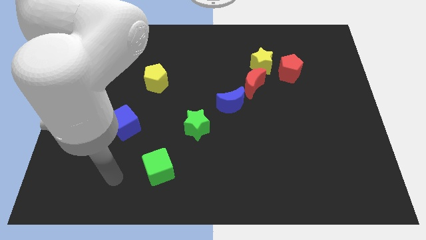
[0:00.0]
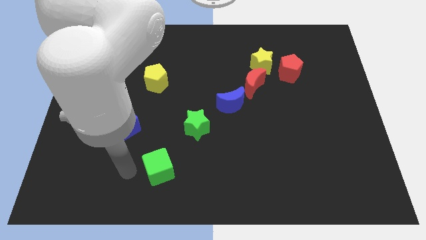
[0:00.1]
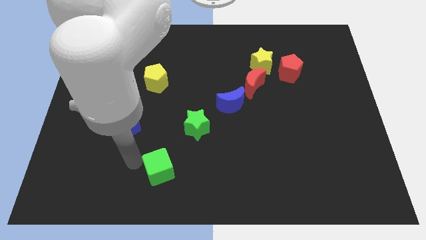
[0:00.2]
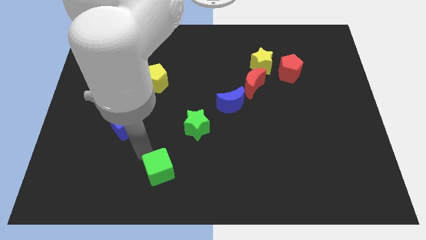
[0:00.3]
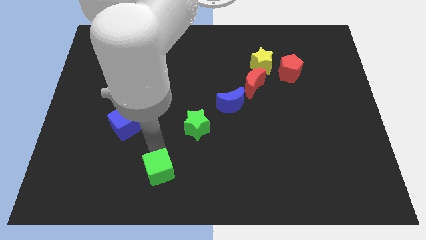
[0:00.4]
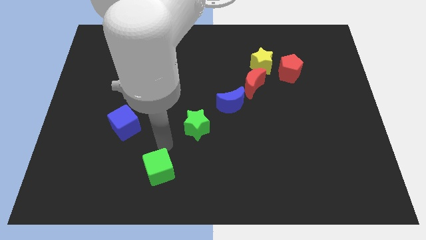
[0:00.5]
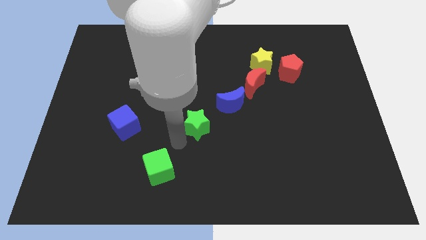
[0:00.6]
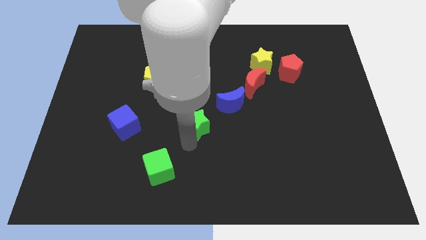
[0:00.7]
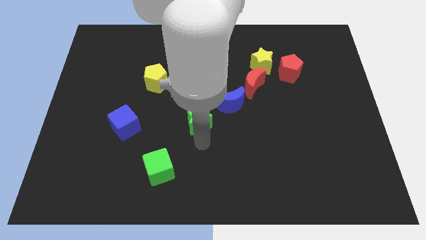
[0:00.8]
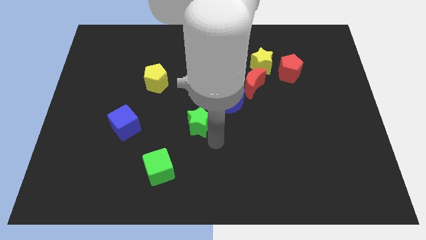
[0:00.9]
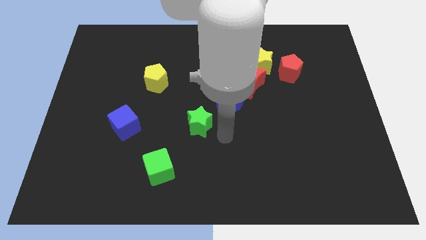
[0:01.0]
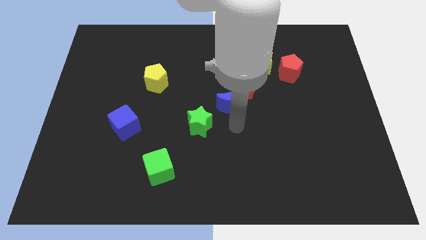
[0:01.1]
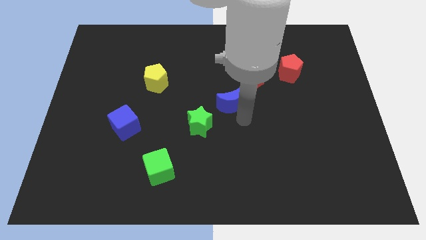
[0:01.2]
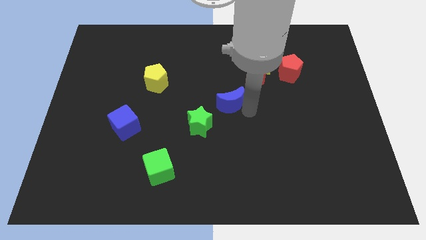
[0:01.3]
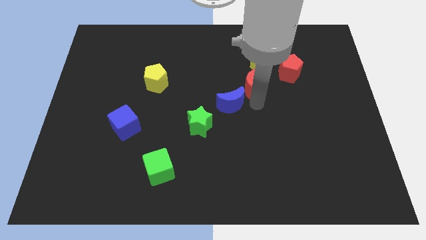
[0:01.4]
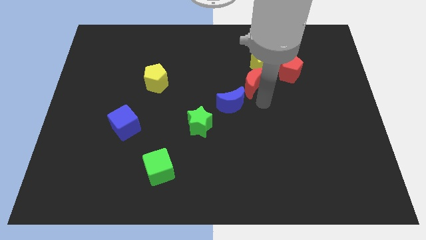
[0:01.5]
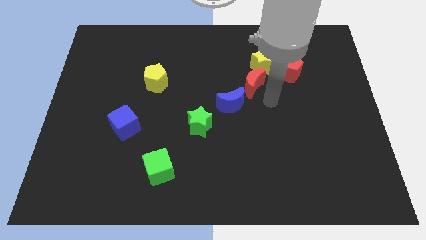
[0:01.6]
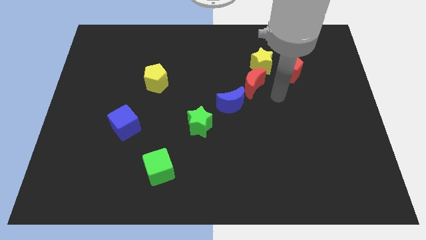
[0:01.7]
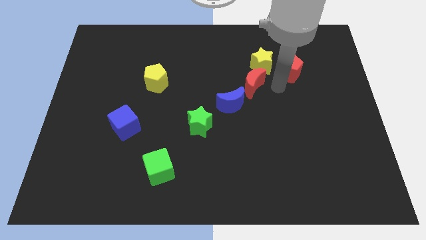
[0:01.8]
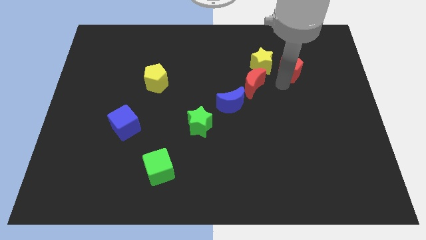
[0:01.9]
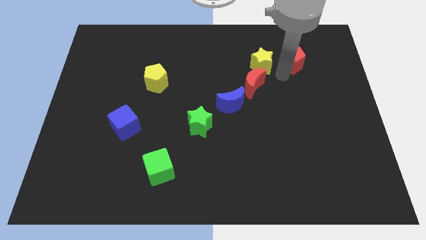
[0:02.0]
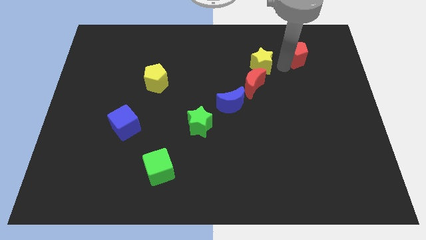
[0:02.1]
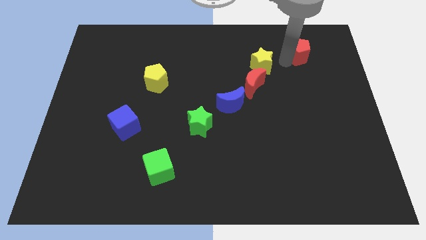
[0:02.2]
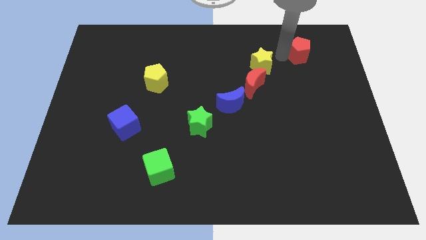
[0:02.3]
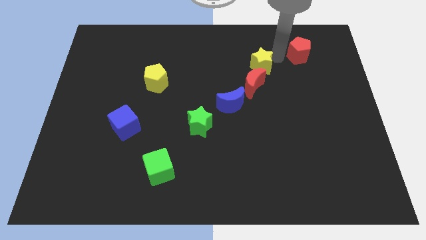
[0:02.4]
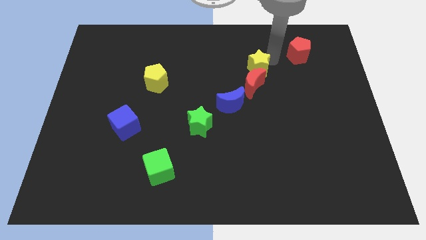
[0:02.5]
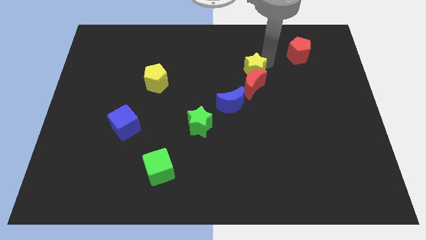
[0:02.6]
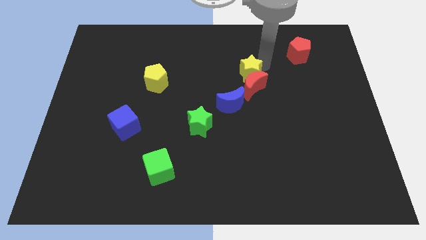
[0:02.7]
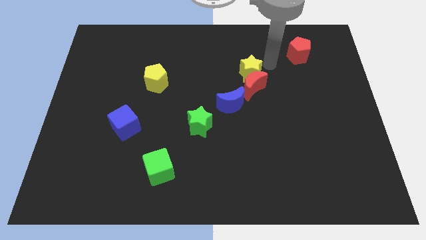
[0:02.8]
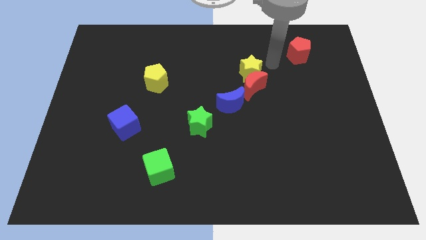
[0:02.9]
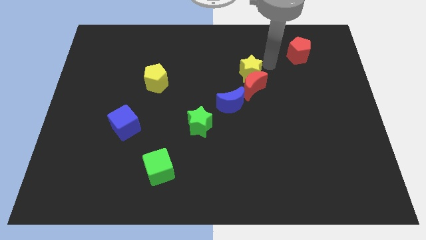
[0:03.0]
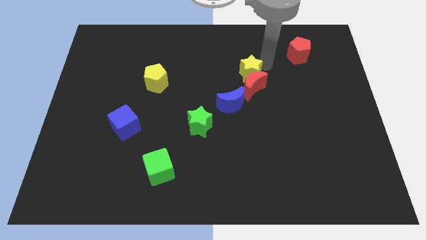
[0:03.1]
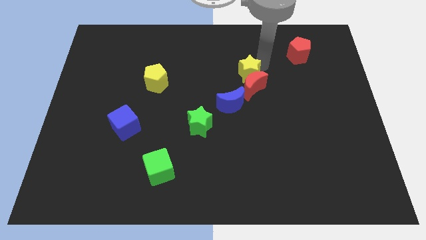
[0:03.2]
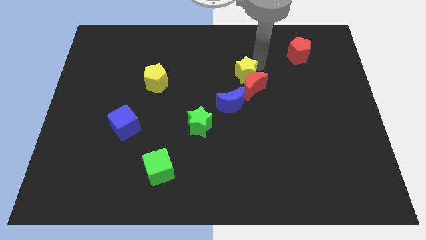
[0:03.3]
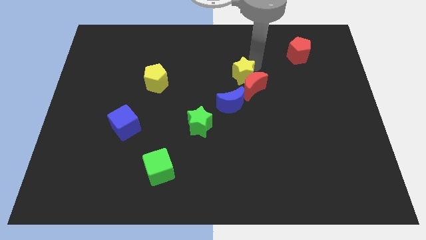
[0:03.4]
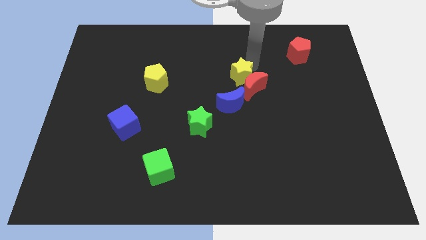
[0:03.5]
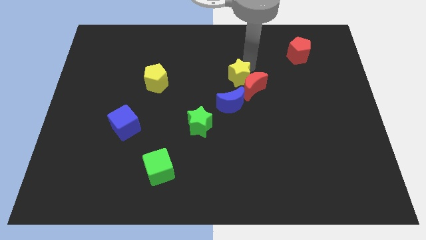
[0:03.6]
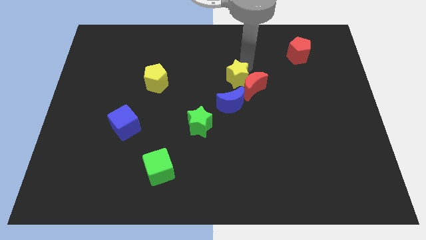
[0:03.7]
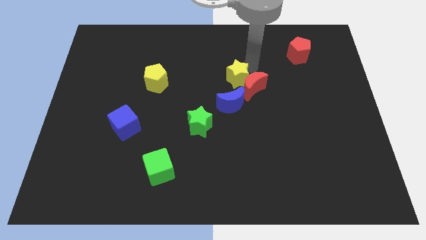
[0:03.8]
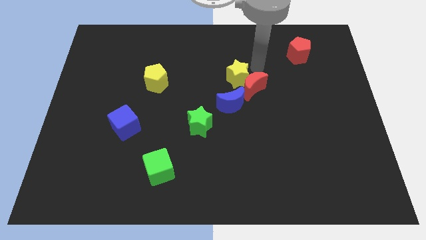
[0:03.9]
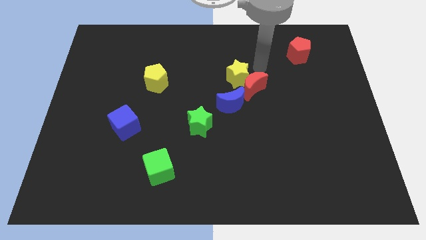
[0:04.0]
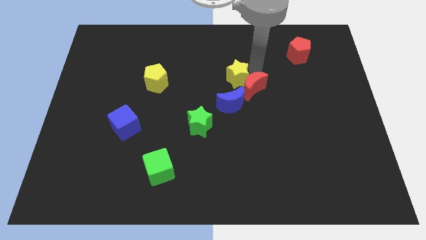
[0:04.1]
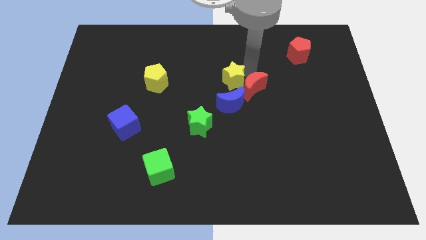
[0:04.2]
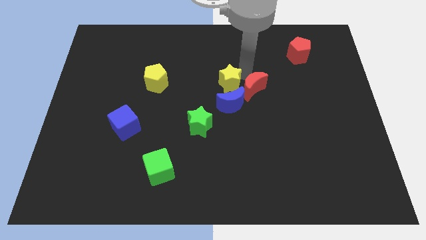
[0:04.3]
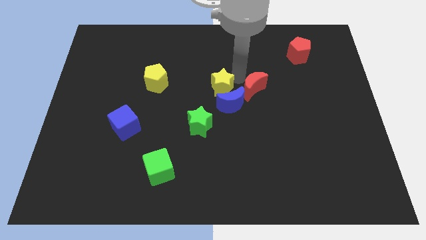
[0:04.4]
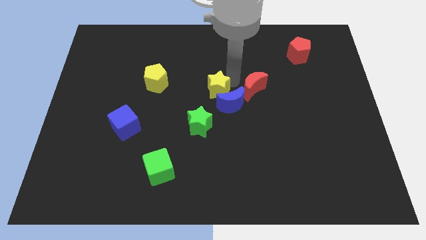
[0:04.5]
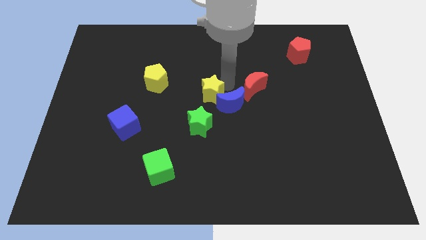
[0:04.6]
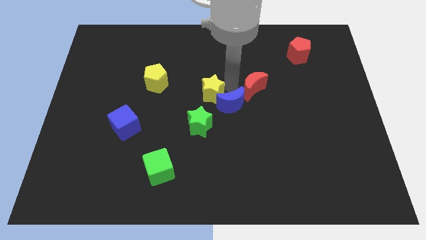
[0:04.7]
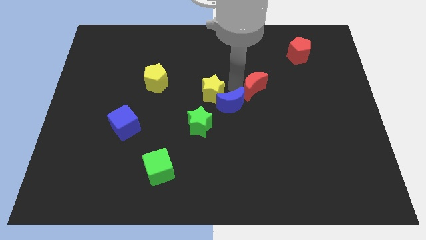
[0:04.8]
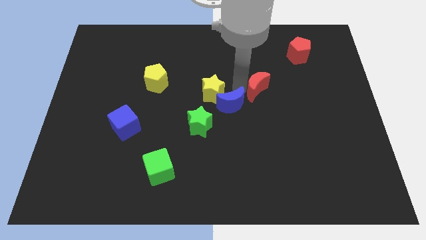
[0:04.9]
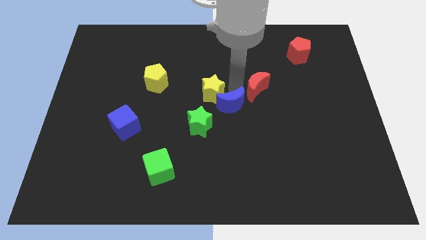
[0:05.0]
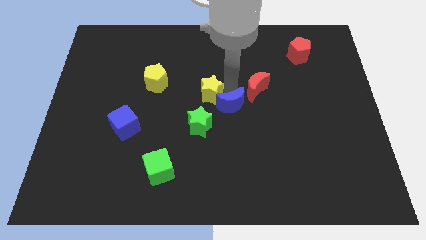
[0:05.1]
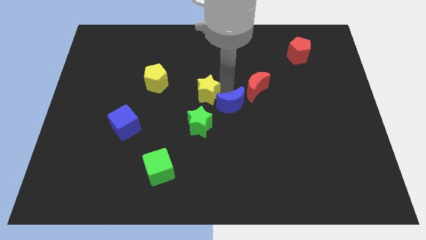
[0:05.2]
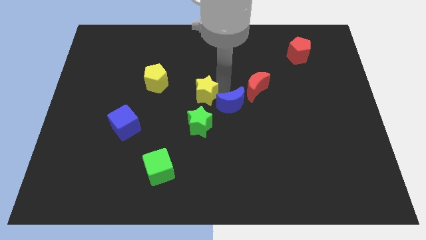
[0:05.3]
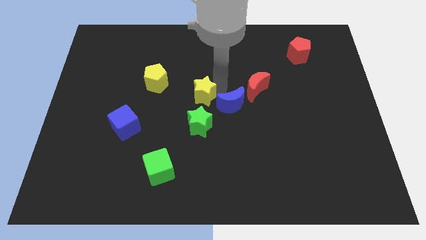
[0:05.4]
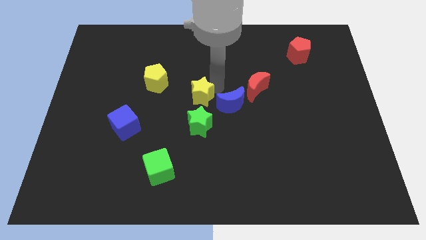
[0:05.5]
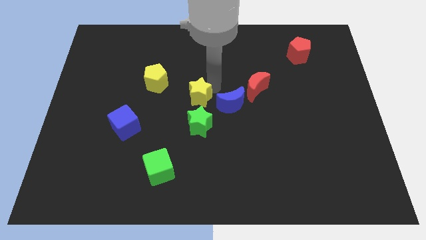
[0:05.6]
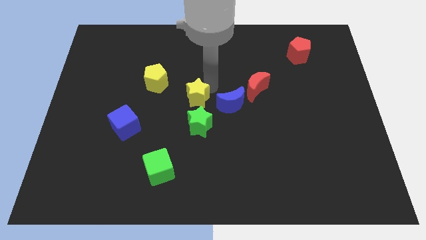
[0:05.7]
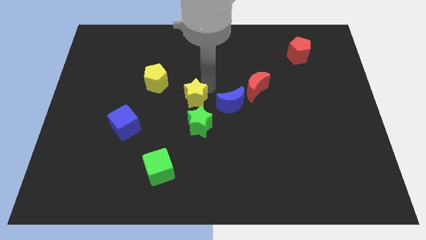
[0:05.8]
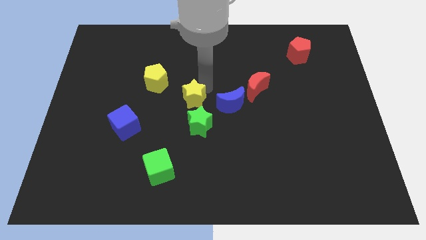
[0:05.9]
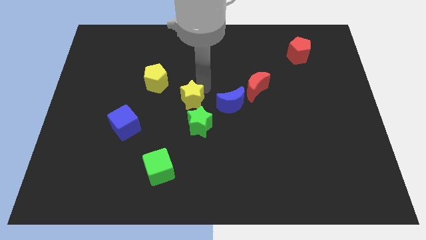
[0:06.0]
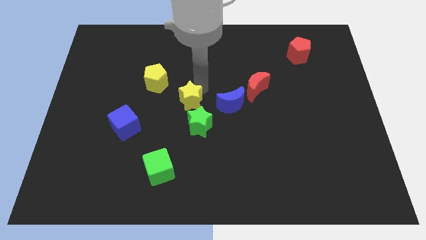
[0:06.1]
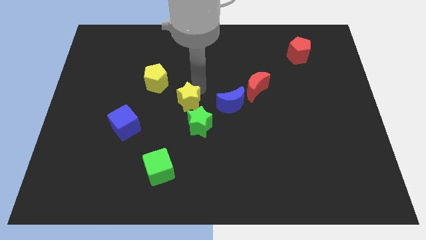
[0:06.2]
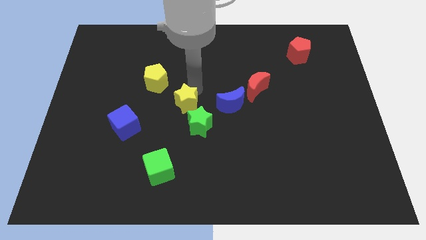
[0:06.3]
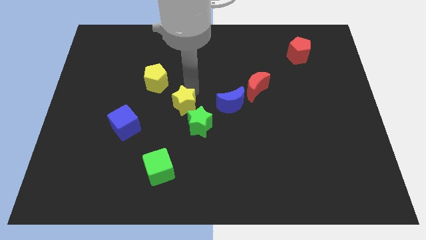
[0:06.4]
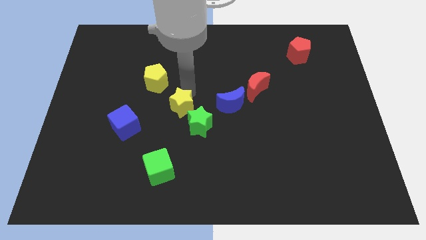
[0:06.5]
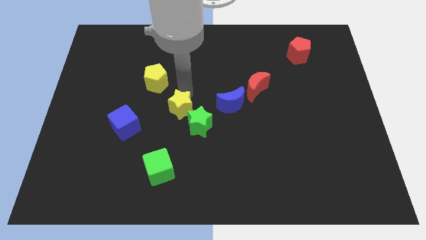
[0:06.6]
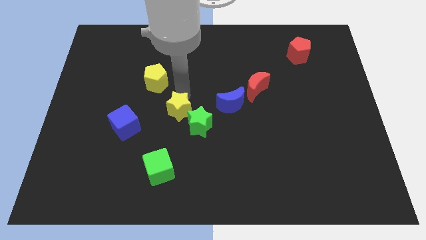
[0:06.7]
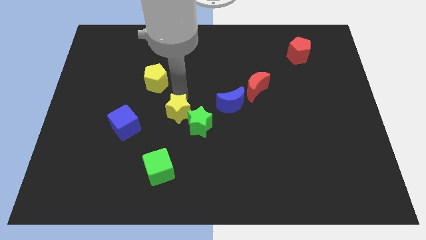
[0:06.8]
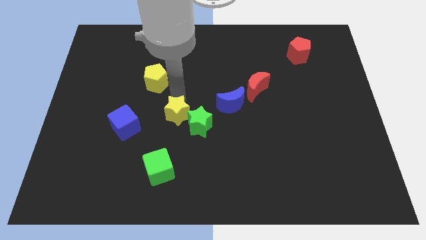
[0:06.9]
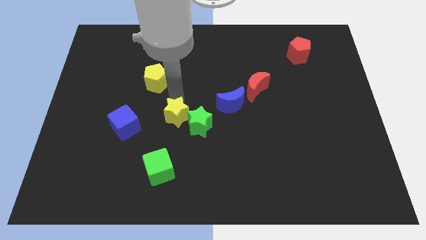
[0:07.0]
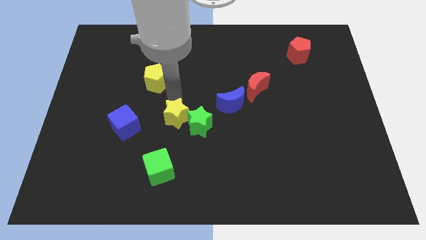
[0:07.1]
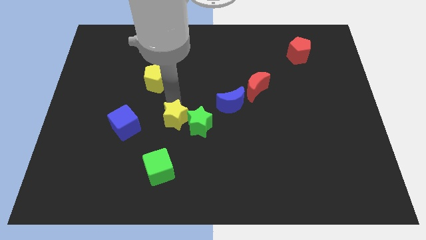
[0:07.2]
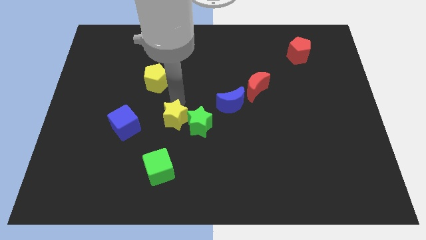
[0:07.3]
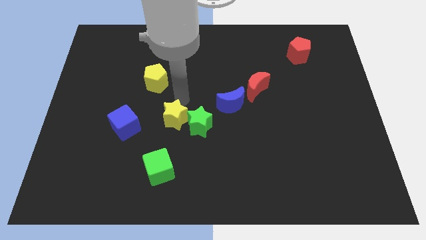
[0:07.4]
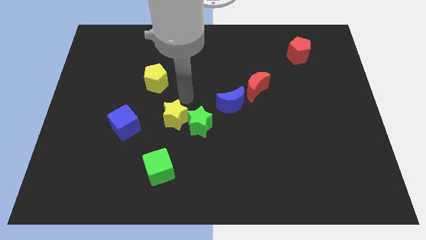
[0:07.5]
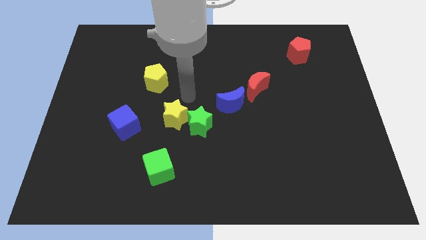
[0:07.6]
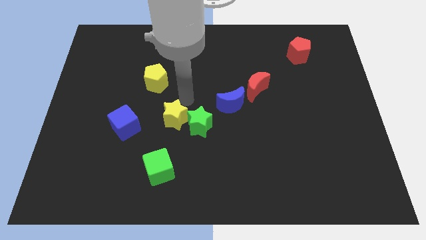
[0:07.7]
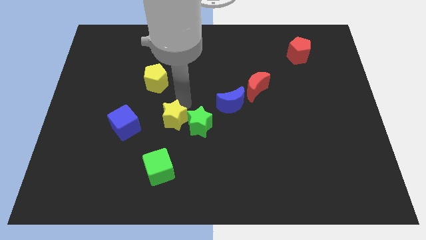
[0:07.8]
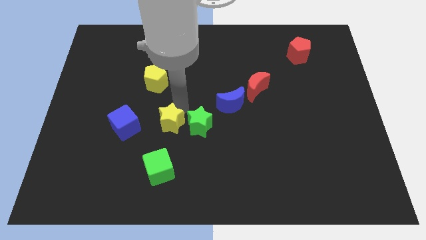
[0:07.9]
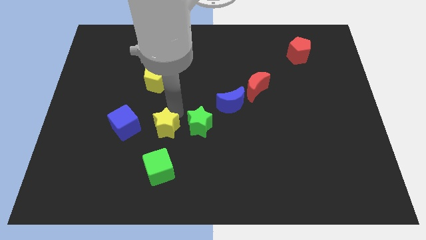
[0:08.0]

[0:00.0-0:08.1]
put the yellow star diagonally down and to the left of the green star
